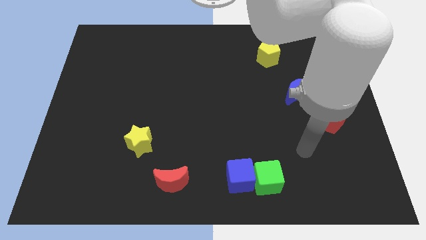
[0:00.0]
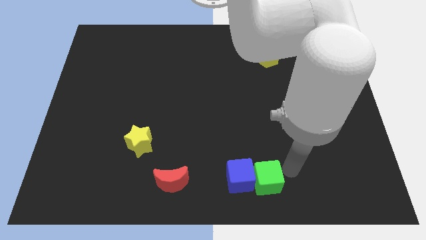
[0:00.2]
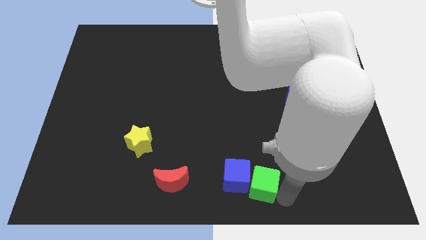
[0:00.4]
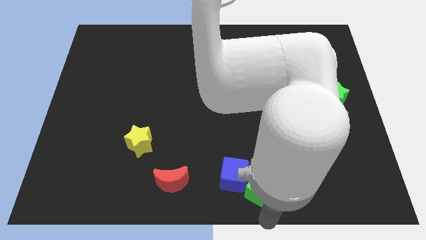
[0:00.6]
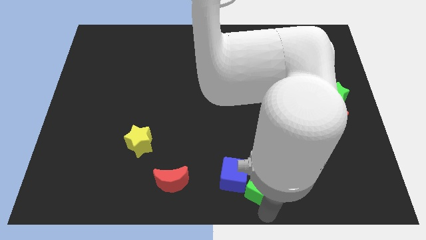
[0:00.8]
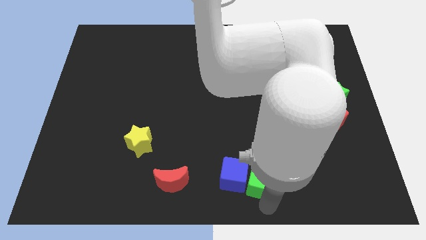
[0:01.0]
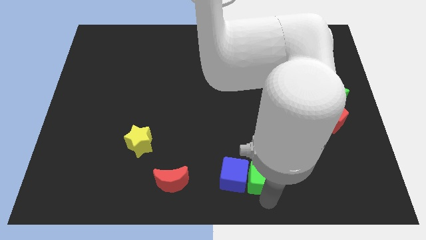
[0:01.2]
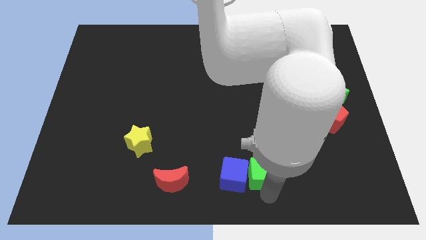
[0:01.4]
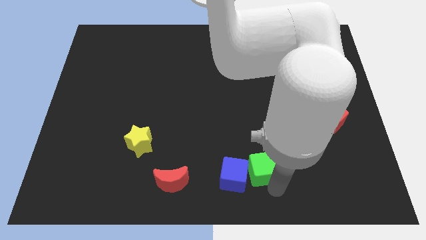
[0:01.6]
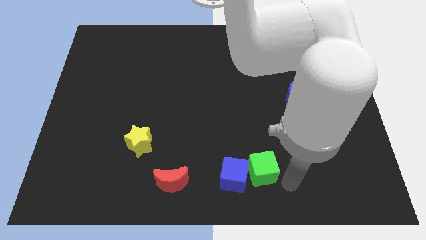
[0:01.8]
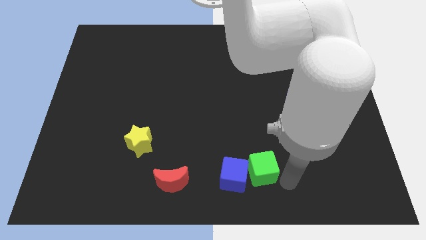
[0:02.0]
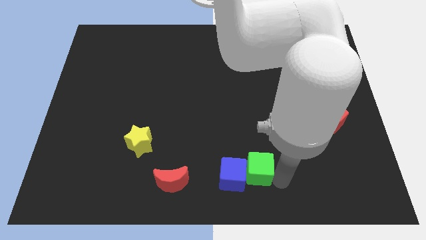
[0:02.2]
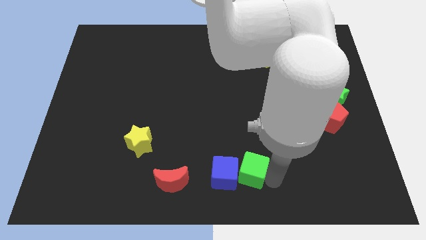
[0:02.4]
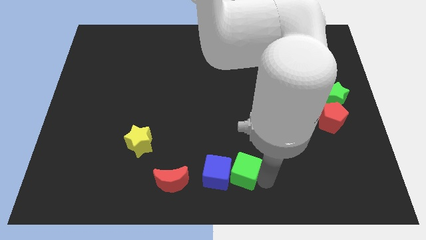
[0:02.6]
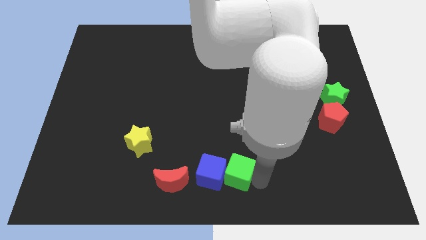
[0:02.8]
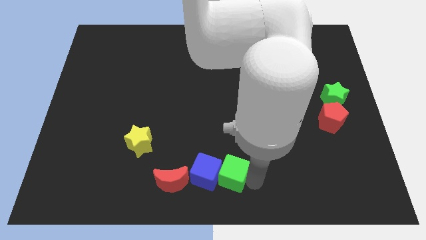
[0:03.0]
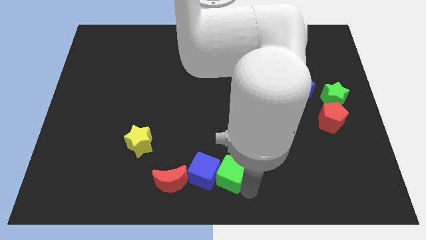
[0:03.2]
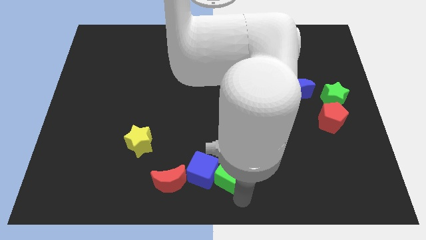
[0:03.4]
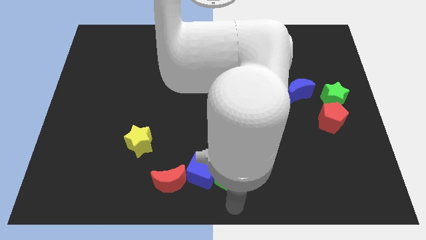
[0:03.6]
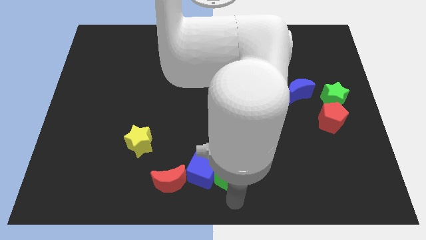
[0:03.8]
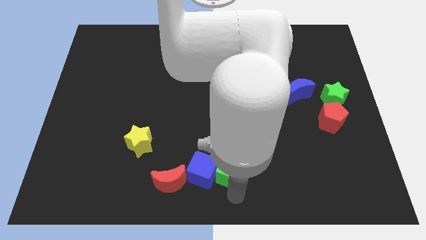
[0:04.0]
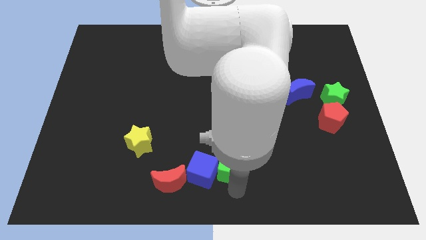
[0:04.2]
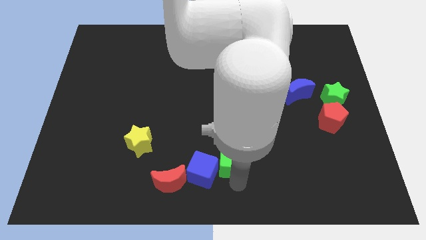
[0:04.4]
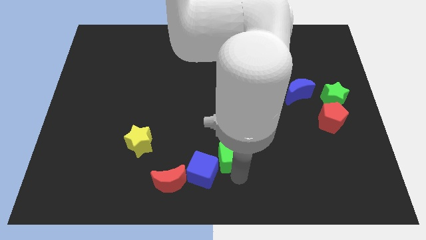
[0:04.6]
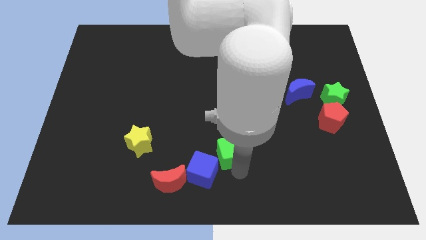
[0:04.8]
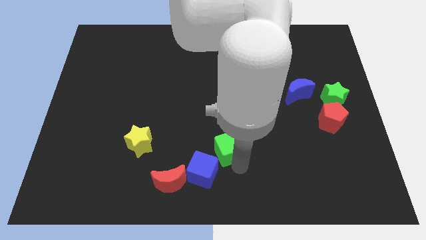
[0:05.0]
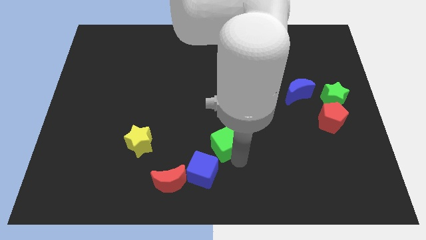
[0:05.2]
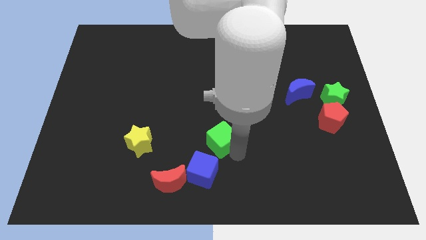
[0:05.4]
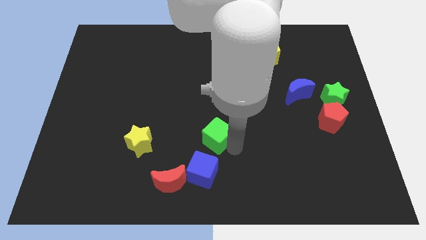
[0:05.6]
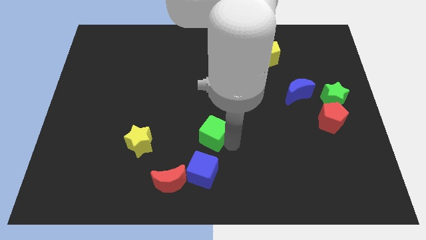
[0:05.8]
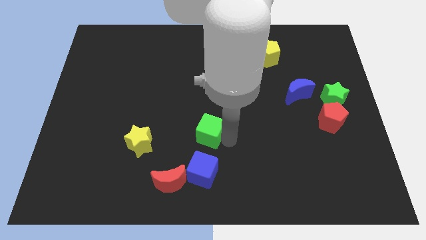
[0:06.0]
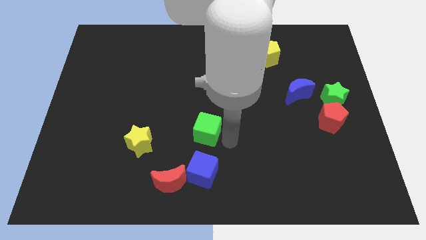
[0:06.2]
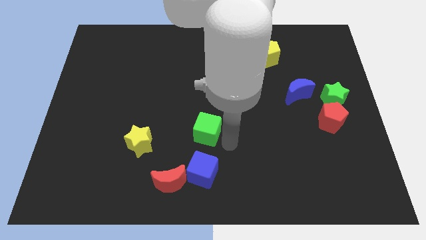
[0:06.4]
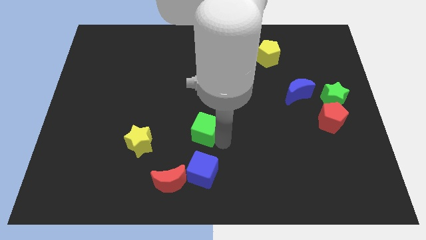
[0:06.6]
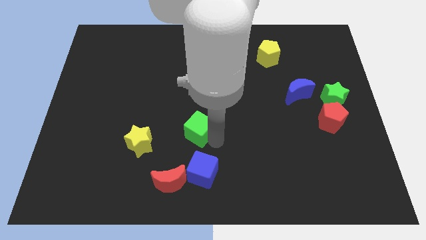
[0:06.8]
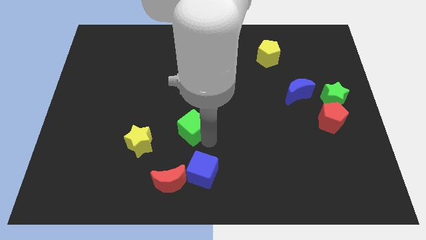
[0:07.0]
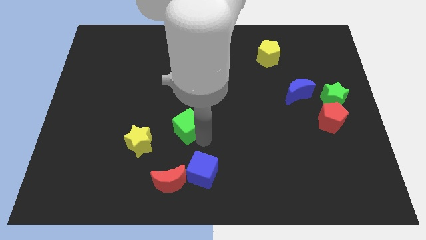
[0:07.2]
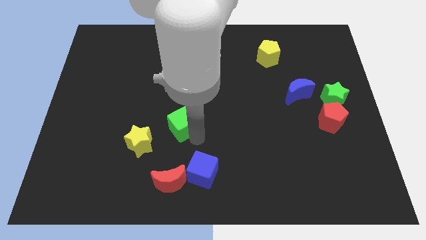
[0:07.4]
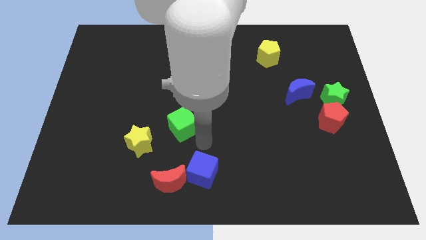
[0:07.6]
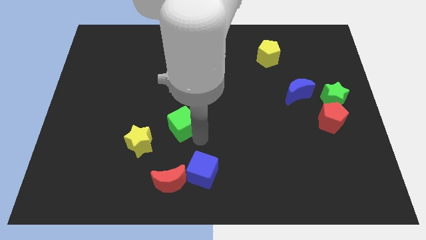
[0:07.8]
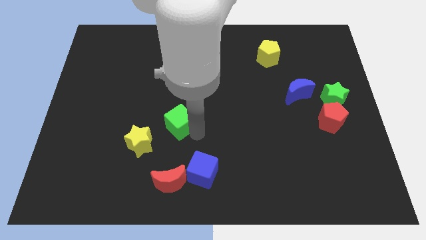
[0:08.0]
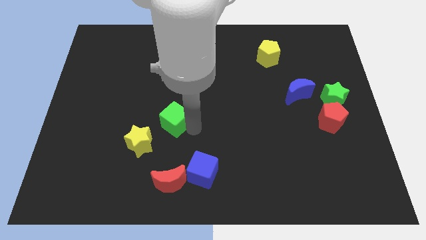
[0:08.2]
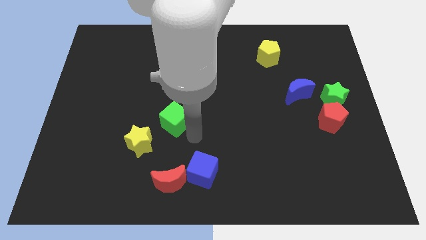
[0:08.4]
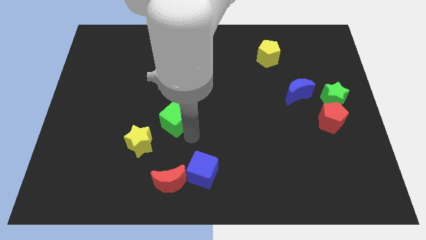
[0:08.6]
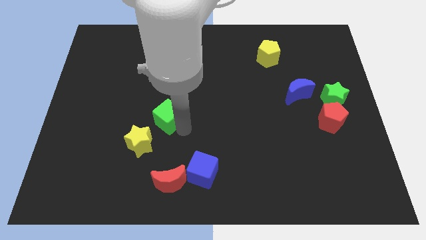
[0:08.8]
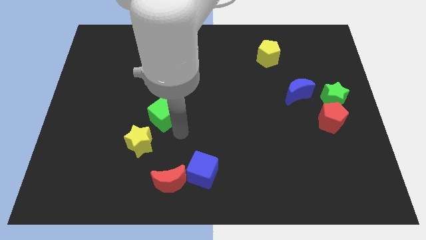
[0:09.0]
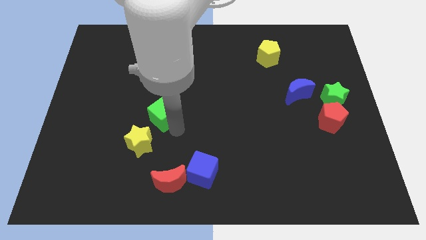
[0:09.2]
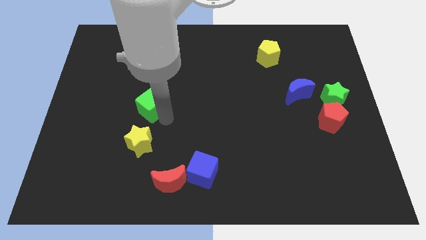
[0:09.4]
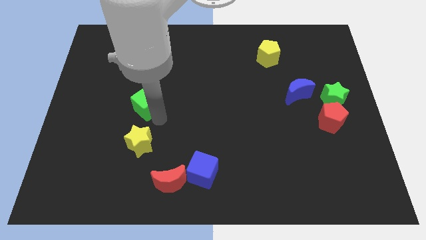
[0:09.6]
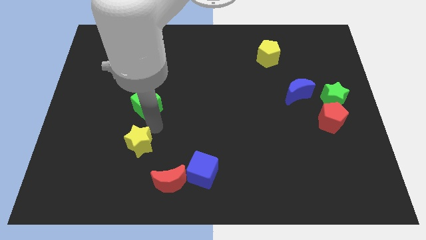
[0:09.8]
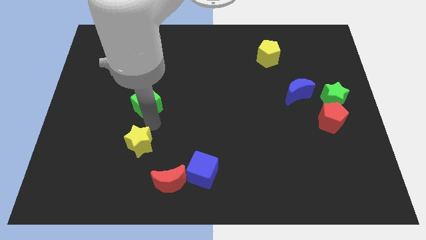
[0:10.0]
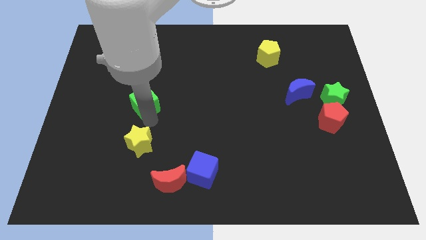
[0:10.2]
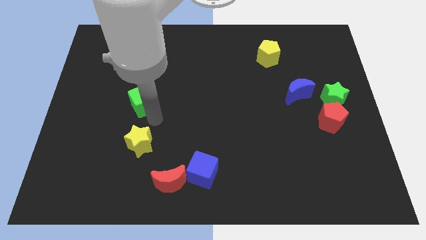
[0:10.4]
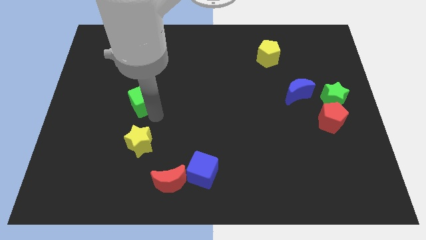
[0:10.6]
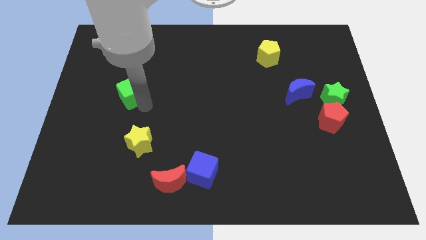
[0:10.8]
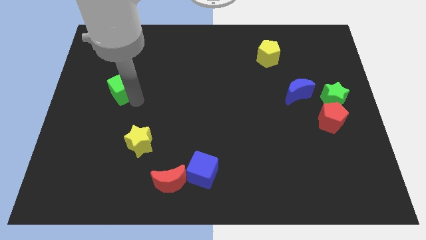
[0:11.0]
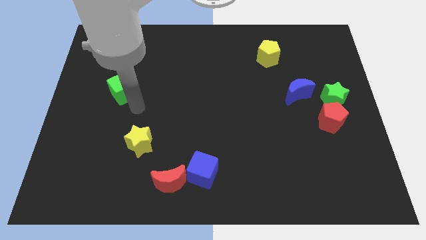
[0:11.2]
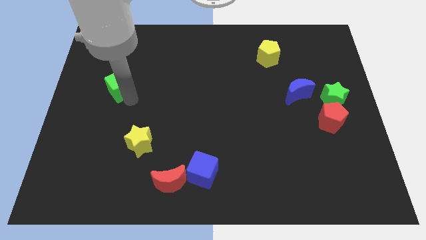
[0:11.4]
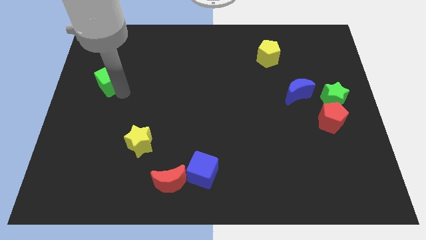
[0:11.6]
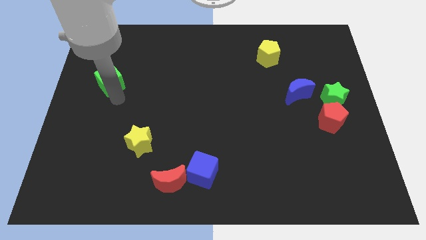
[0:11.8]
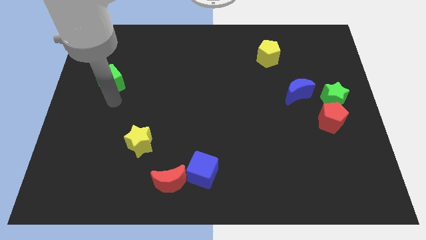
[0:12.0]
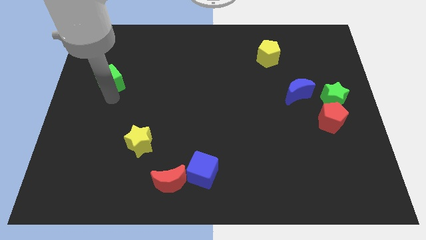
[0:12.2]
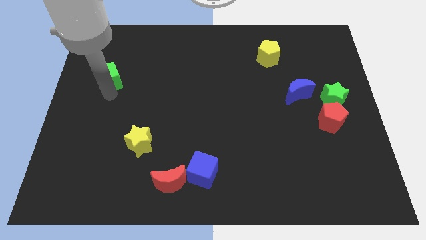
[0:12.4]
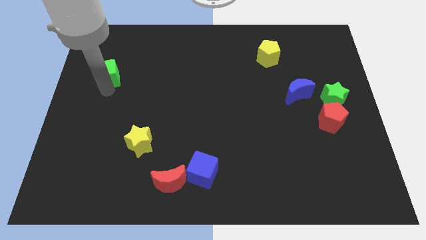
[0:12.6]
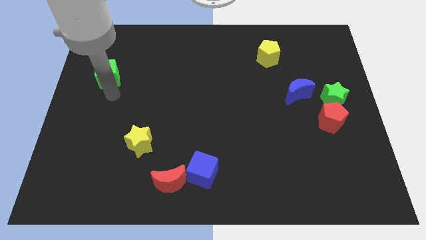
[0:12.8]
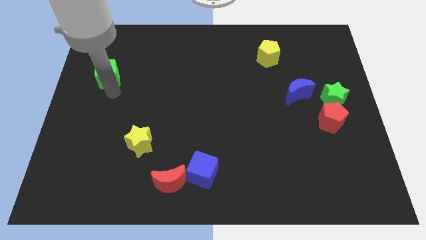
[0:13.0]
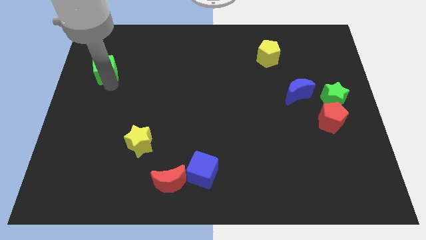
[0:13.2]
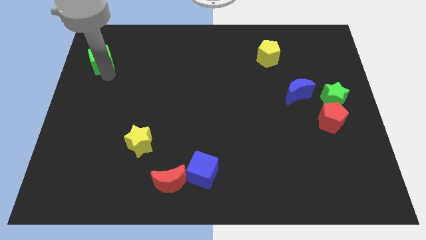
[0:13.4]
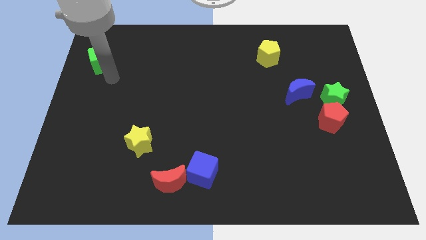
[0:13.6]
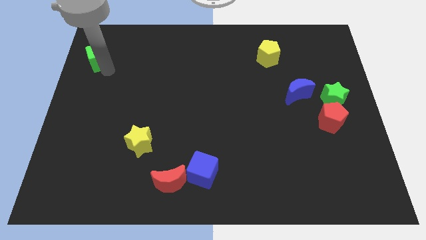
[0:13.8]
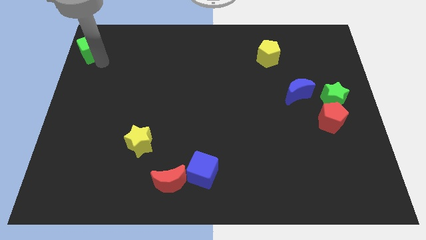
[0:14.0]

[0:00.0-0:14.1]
move the green cube to the top left of the board

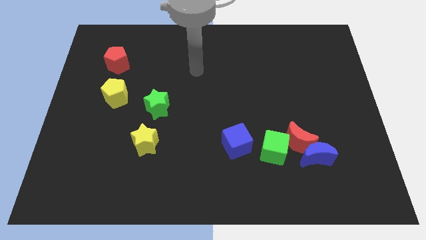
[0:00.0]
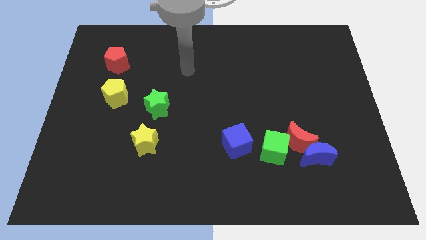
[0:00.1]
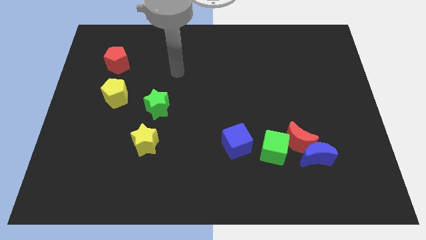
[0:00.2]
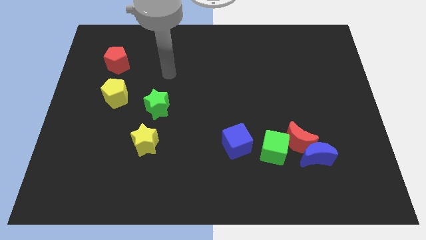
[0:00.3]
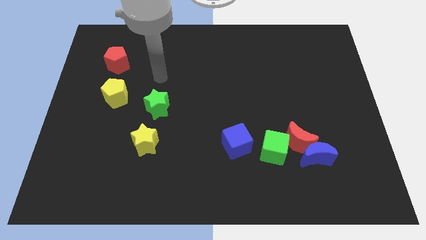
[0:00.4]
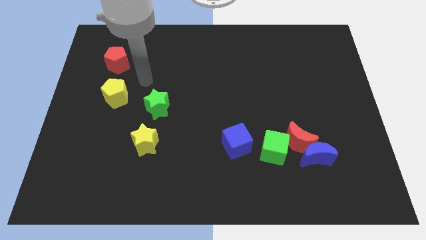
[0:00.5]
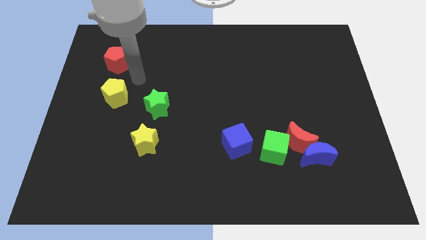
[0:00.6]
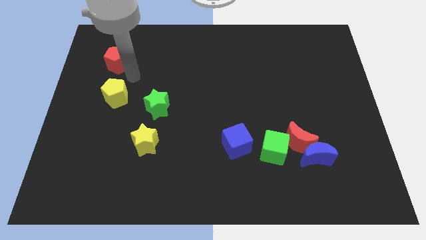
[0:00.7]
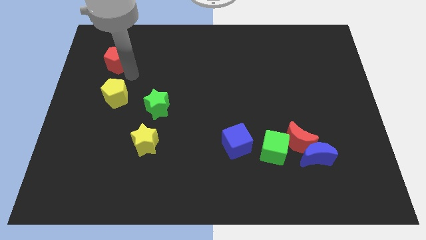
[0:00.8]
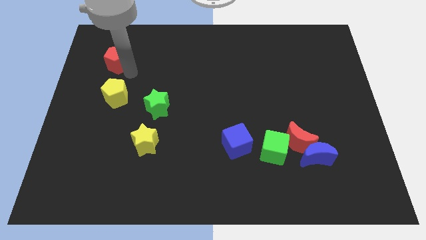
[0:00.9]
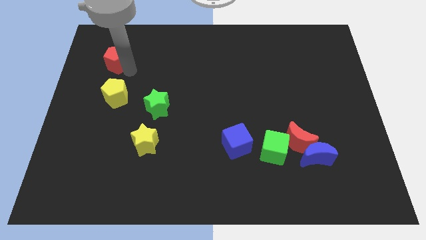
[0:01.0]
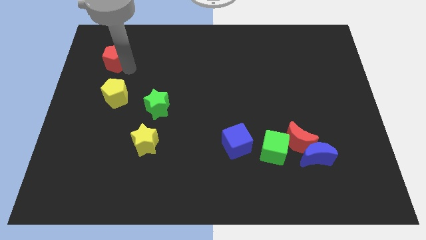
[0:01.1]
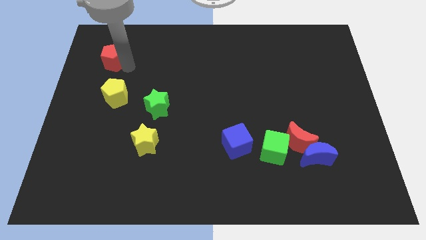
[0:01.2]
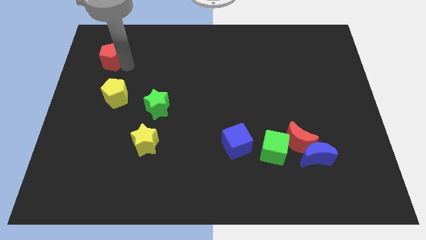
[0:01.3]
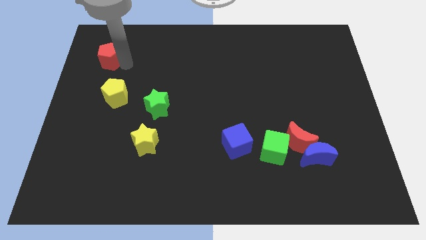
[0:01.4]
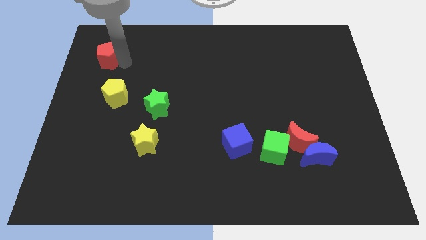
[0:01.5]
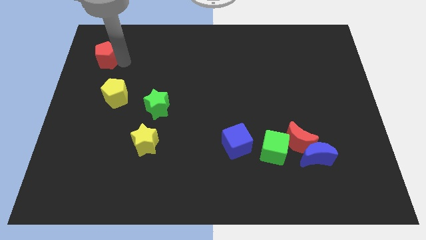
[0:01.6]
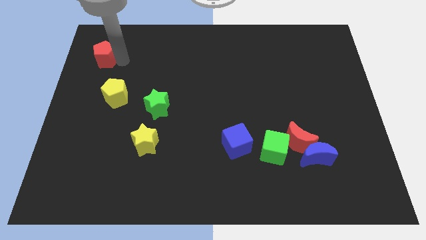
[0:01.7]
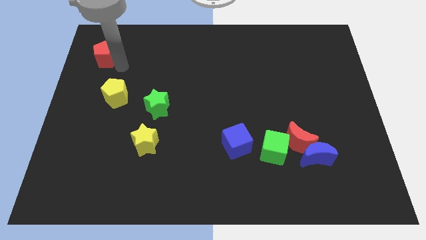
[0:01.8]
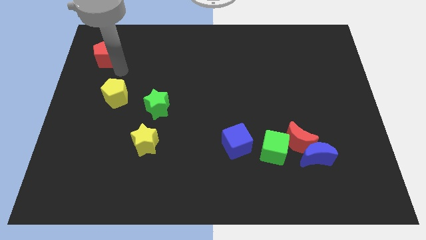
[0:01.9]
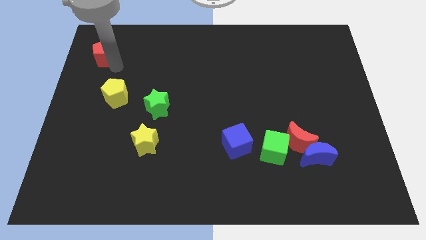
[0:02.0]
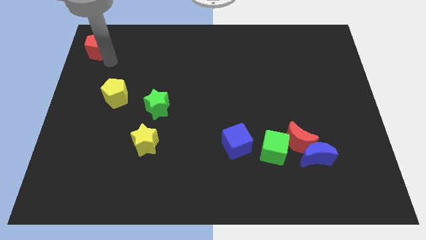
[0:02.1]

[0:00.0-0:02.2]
push the red pentagon to the upper left corner
